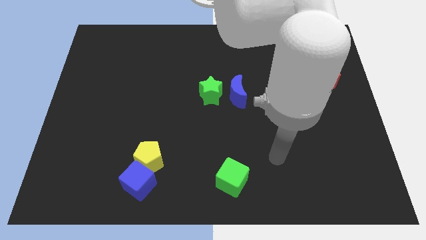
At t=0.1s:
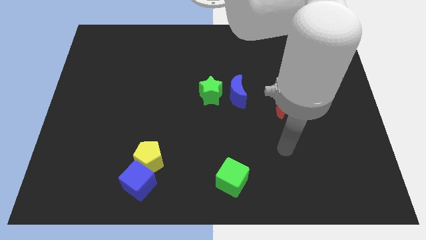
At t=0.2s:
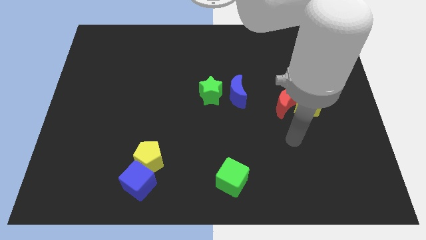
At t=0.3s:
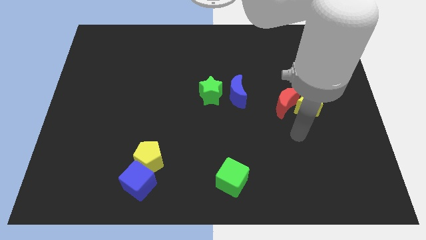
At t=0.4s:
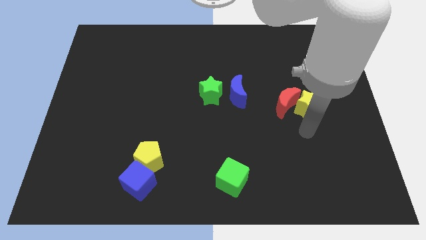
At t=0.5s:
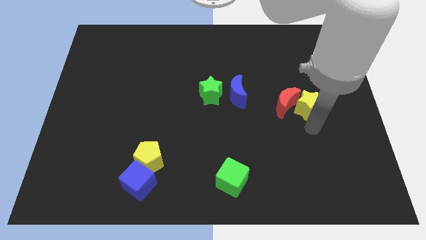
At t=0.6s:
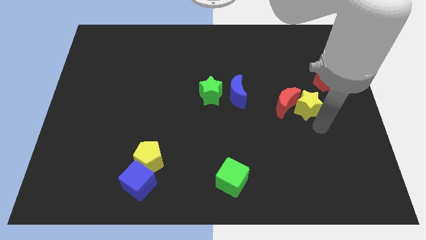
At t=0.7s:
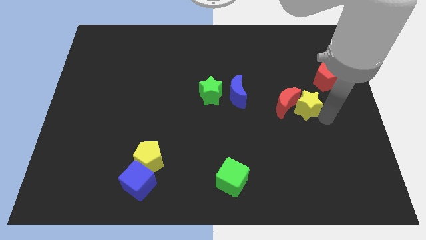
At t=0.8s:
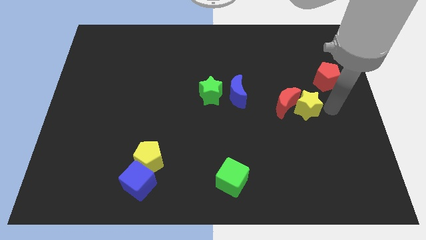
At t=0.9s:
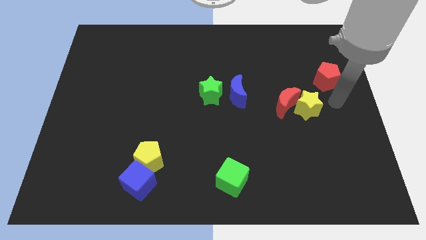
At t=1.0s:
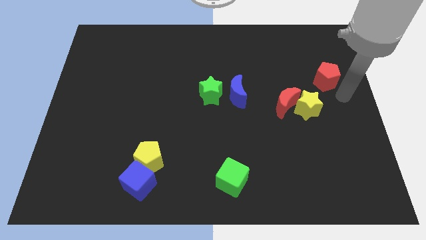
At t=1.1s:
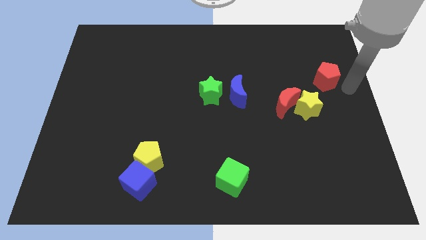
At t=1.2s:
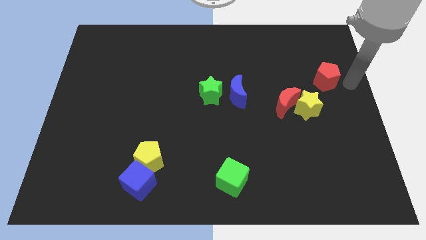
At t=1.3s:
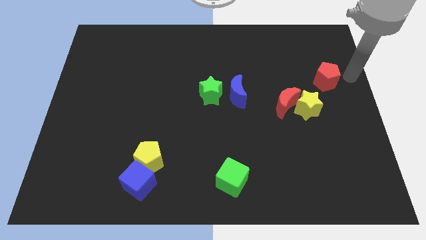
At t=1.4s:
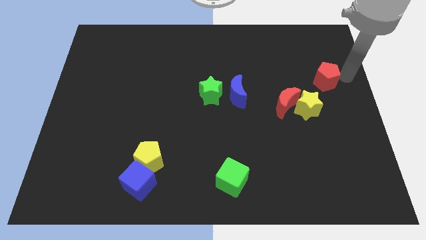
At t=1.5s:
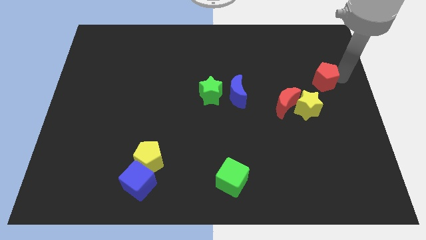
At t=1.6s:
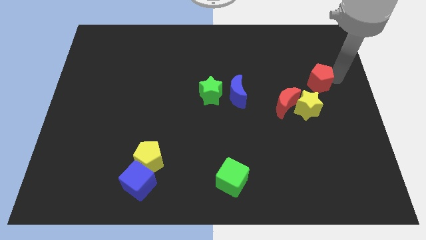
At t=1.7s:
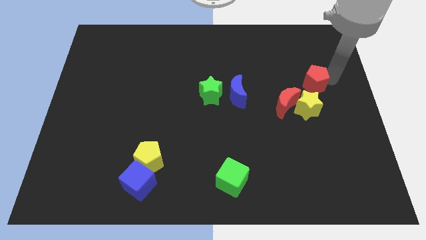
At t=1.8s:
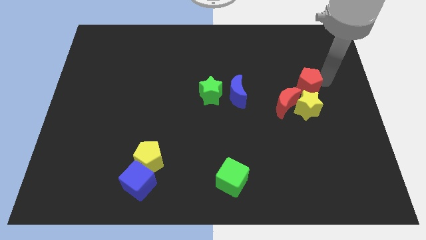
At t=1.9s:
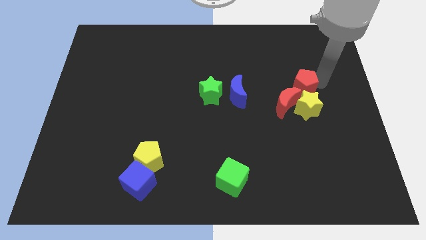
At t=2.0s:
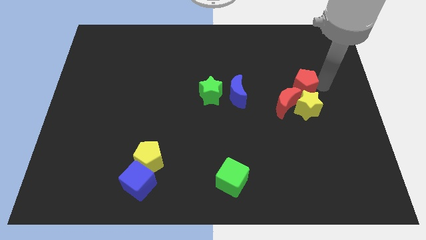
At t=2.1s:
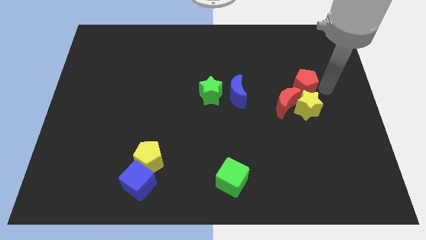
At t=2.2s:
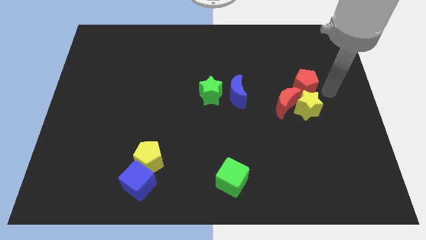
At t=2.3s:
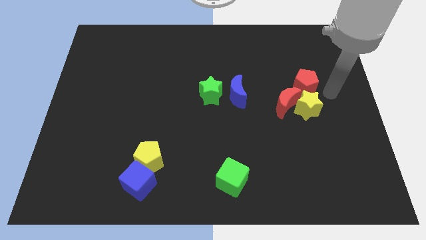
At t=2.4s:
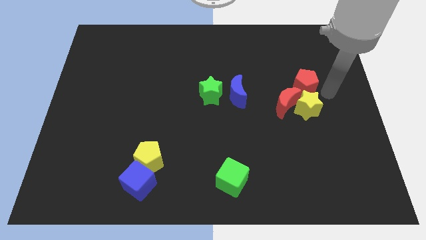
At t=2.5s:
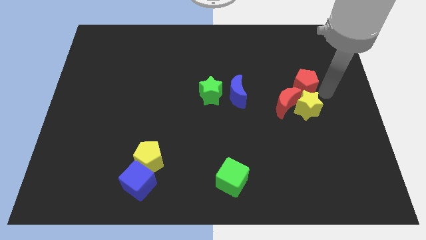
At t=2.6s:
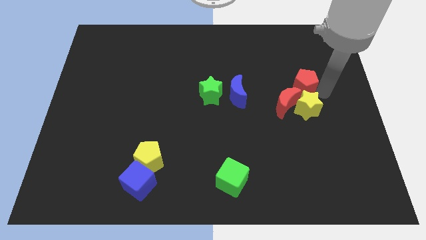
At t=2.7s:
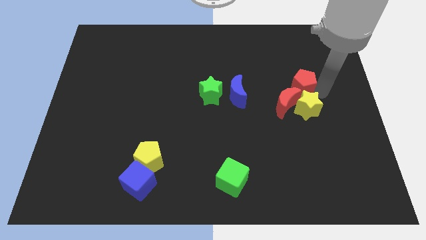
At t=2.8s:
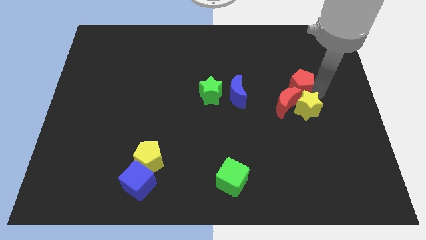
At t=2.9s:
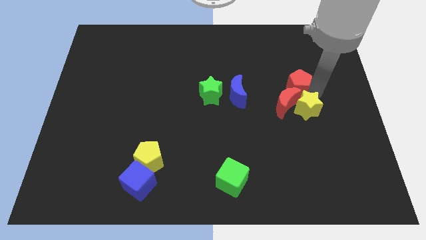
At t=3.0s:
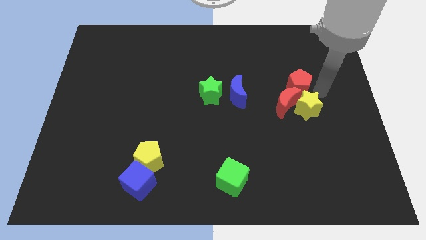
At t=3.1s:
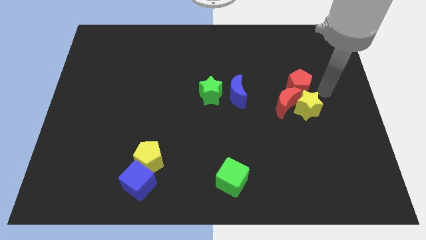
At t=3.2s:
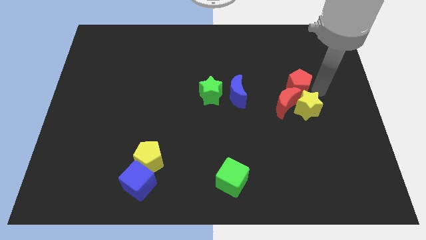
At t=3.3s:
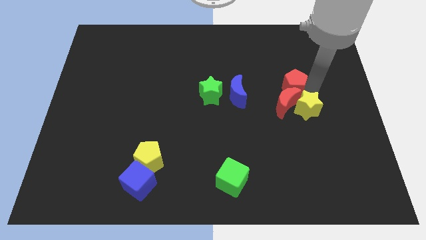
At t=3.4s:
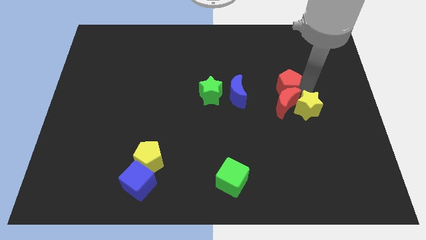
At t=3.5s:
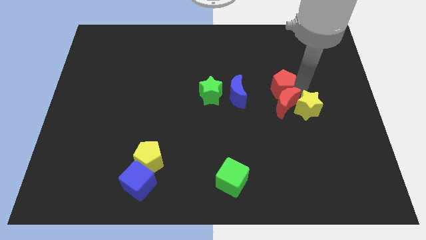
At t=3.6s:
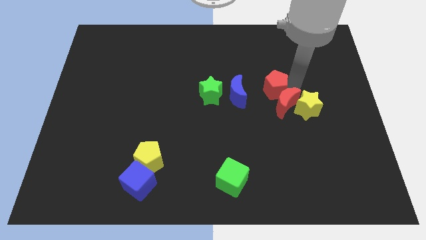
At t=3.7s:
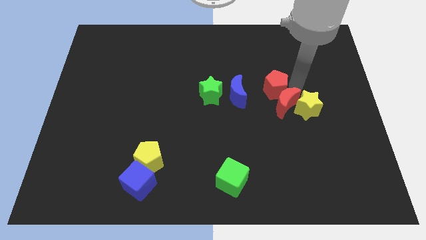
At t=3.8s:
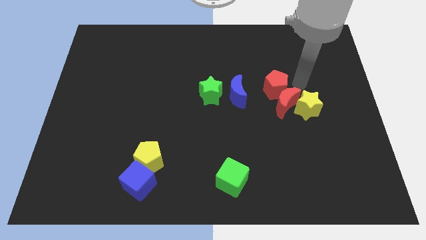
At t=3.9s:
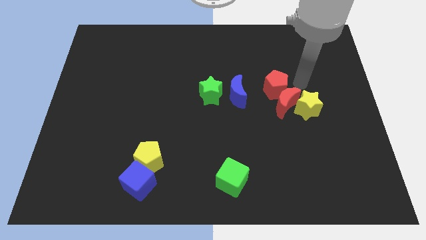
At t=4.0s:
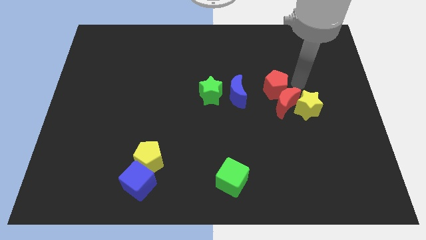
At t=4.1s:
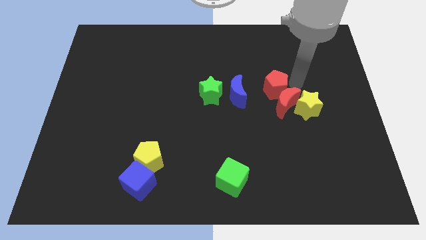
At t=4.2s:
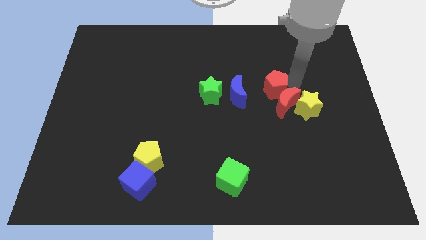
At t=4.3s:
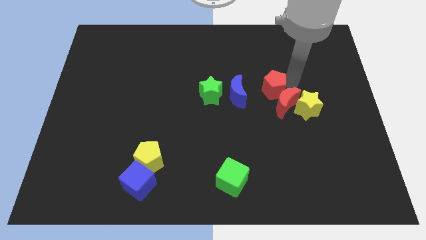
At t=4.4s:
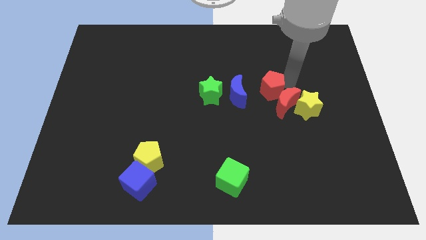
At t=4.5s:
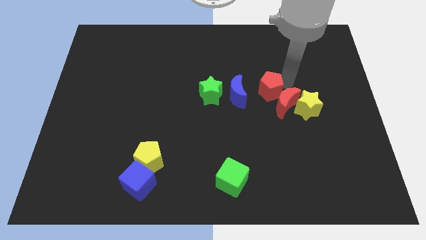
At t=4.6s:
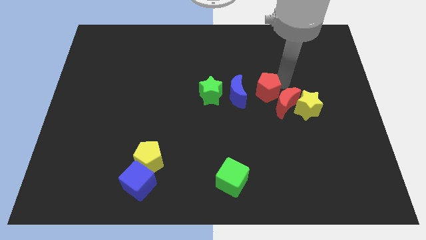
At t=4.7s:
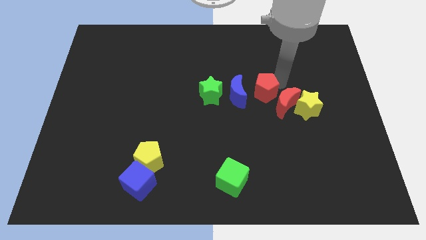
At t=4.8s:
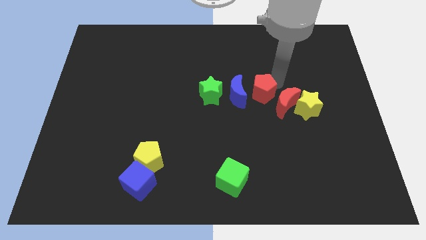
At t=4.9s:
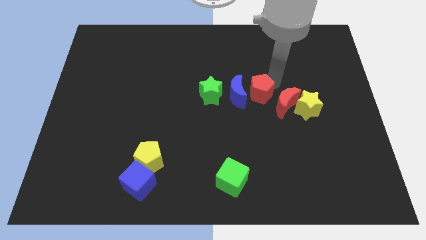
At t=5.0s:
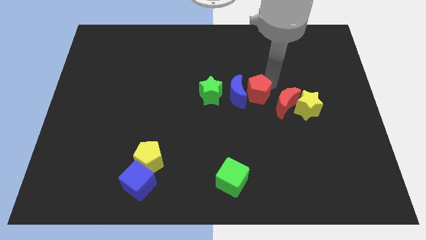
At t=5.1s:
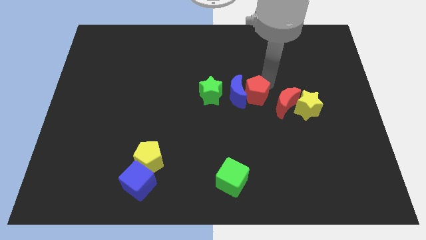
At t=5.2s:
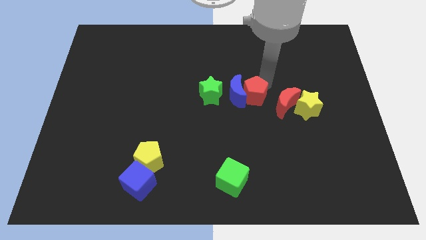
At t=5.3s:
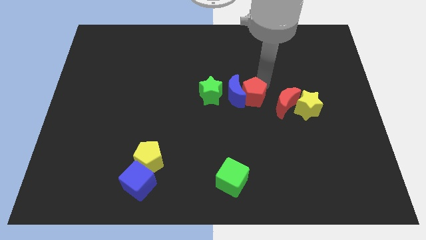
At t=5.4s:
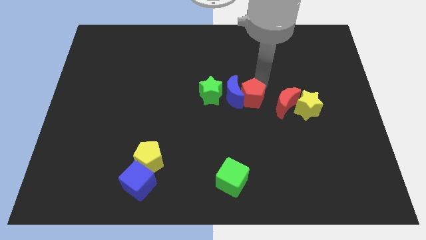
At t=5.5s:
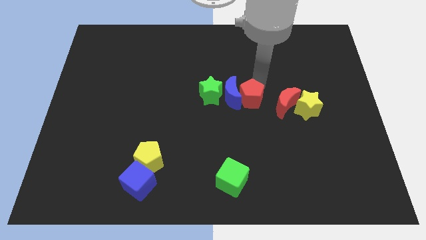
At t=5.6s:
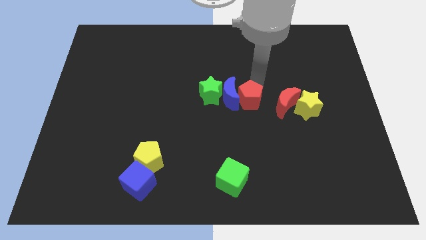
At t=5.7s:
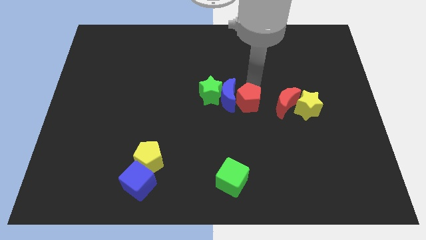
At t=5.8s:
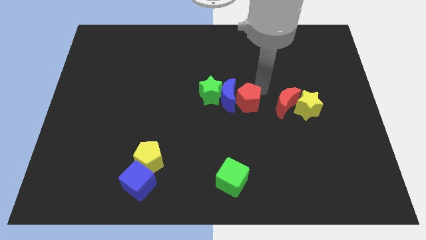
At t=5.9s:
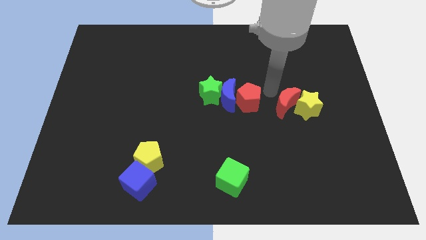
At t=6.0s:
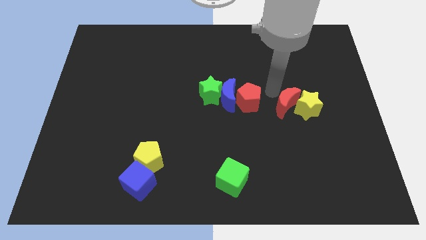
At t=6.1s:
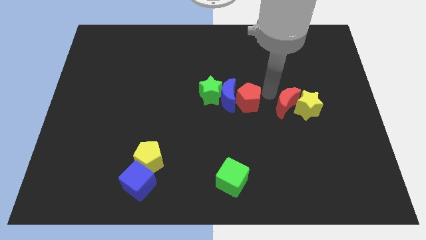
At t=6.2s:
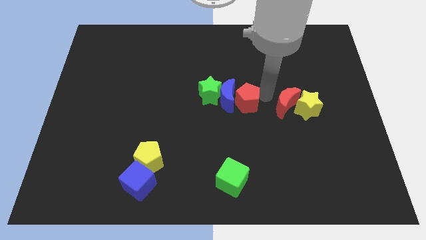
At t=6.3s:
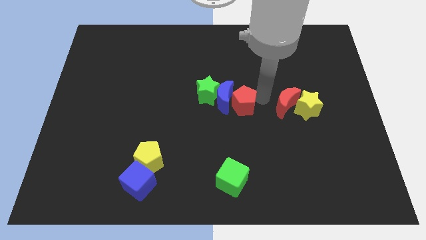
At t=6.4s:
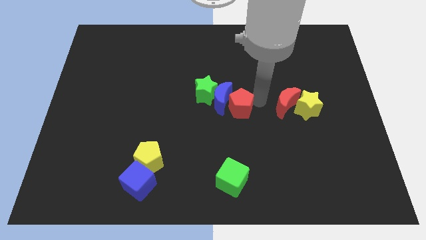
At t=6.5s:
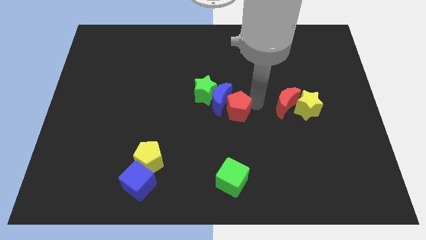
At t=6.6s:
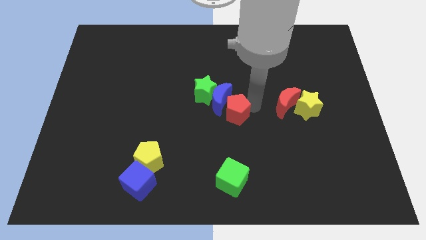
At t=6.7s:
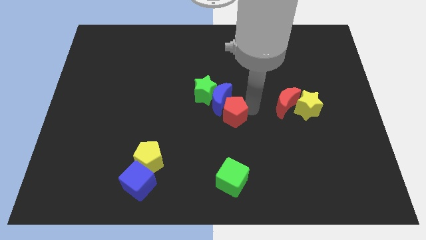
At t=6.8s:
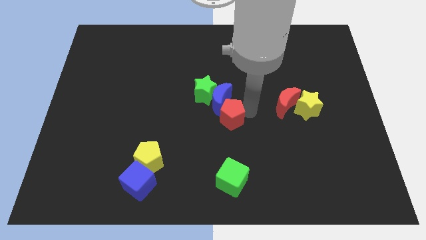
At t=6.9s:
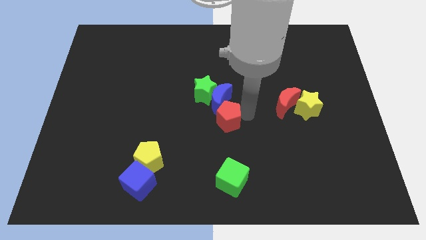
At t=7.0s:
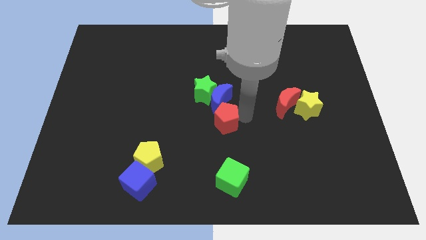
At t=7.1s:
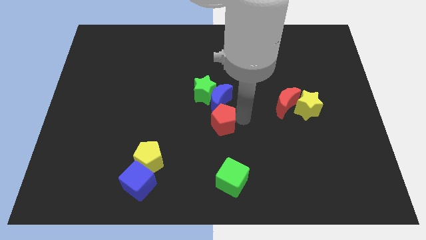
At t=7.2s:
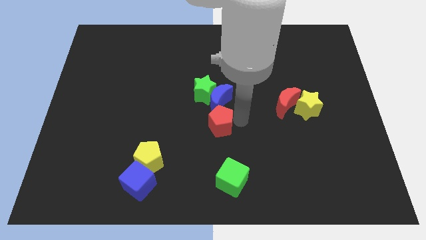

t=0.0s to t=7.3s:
move the red pentagon to the bottom left side of the blue moon
